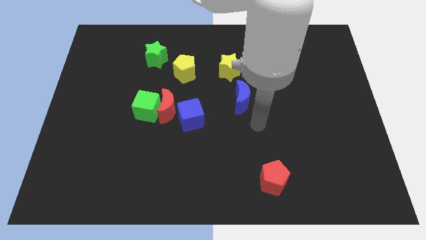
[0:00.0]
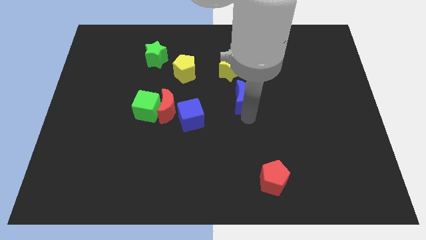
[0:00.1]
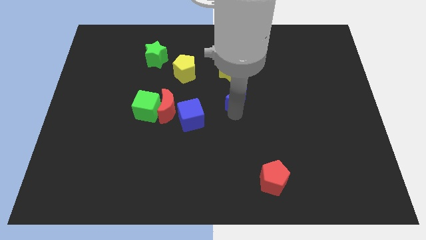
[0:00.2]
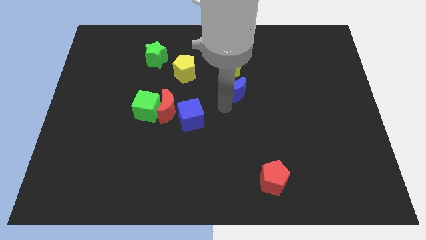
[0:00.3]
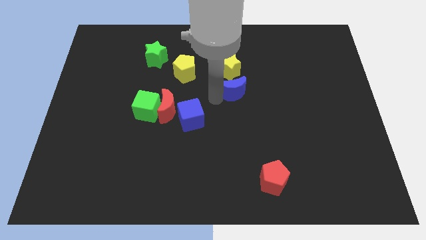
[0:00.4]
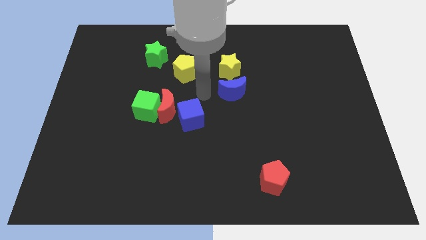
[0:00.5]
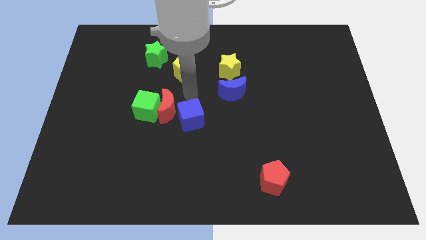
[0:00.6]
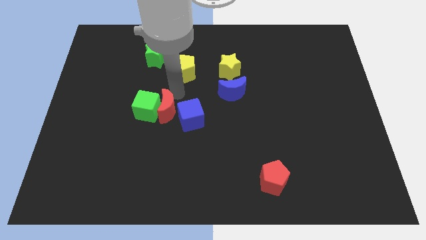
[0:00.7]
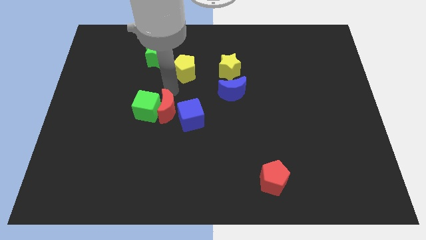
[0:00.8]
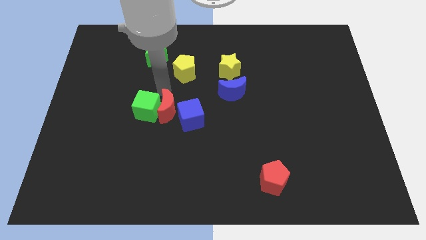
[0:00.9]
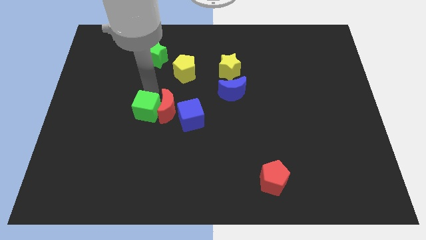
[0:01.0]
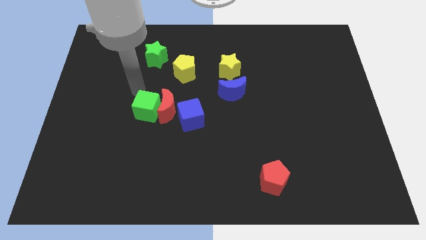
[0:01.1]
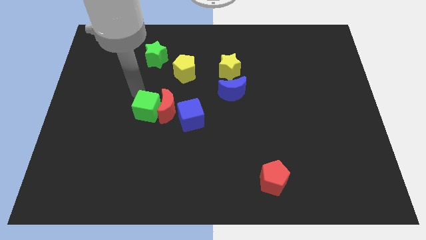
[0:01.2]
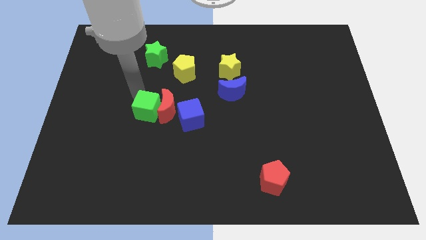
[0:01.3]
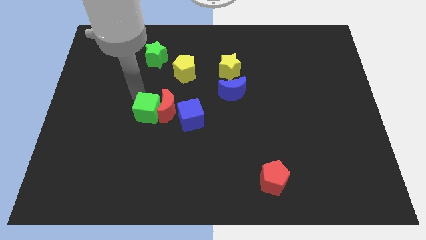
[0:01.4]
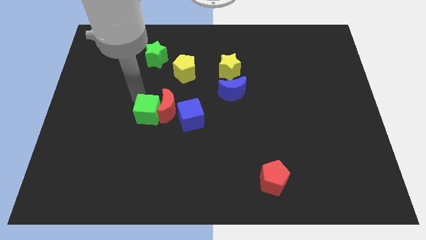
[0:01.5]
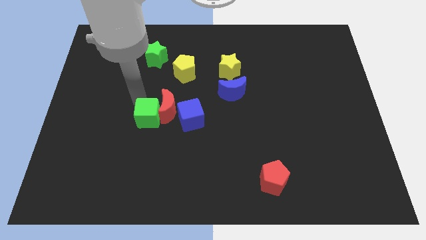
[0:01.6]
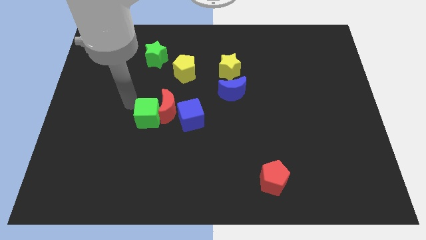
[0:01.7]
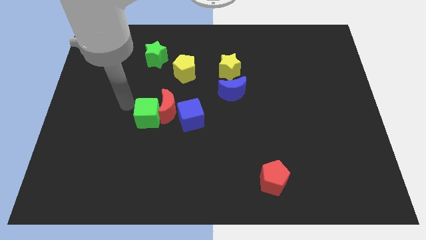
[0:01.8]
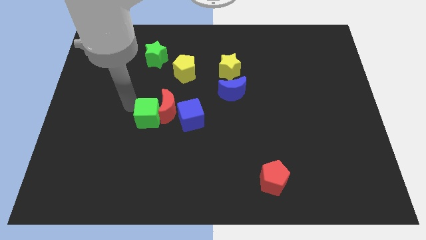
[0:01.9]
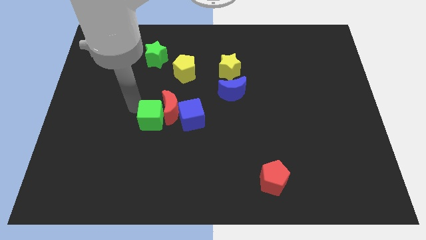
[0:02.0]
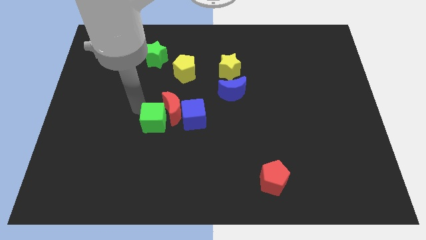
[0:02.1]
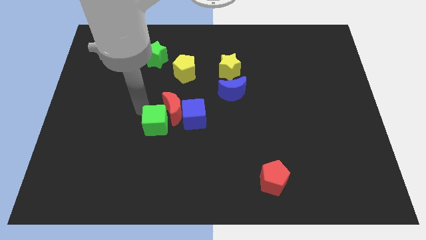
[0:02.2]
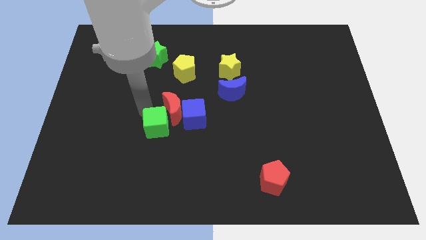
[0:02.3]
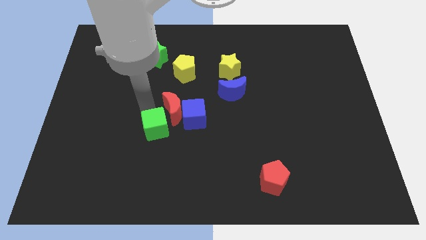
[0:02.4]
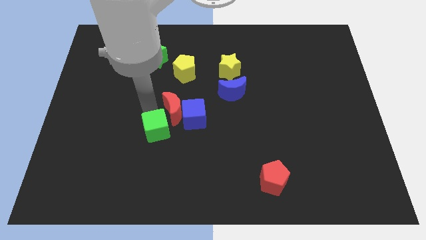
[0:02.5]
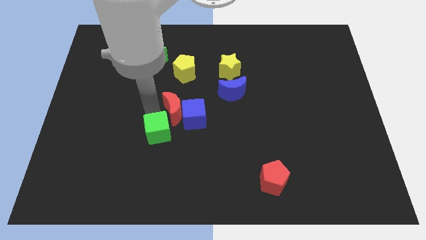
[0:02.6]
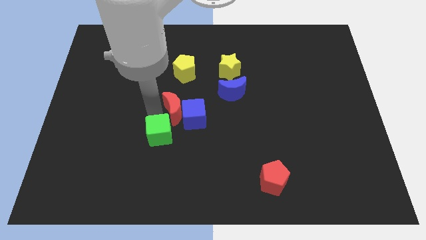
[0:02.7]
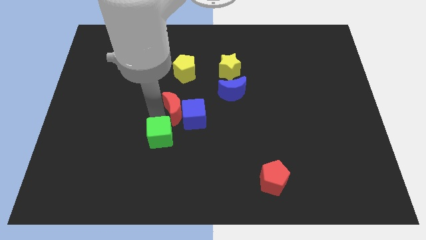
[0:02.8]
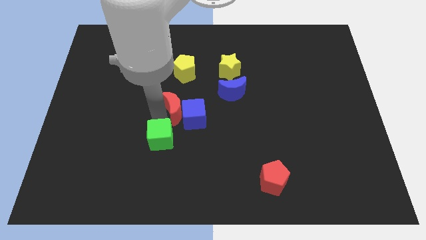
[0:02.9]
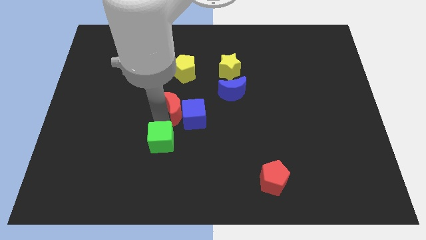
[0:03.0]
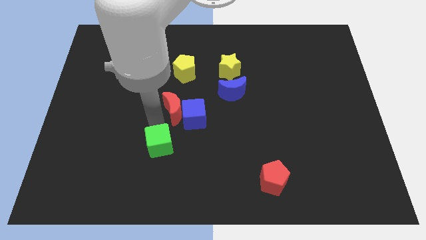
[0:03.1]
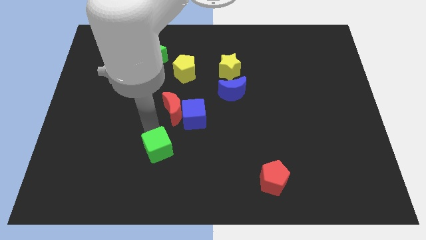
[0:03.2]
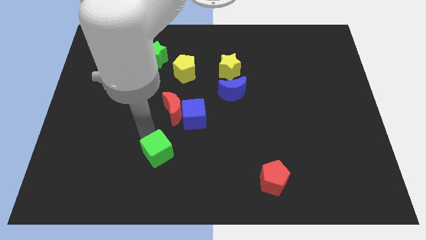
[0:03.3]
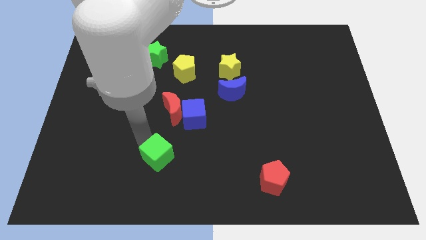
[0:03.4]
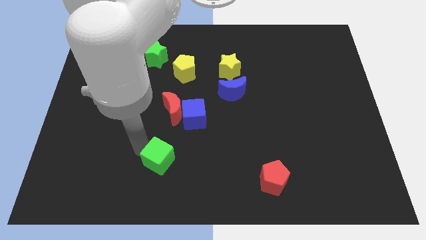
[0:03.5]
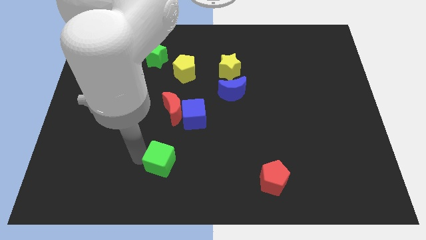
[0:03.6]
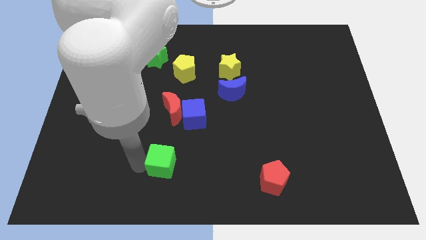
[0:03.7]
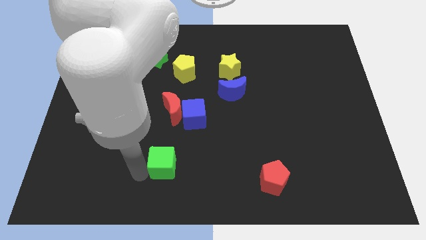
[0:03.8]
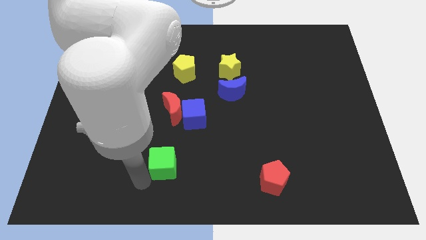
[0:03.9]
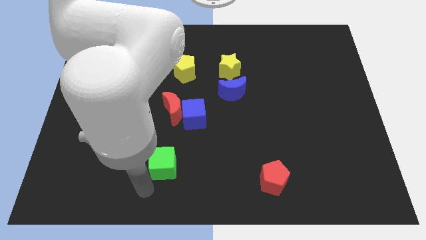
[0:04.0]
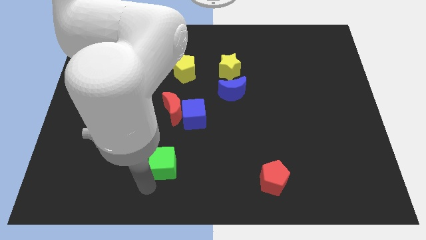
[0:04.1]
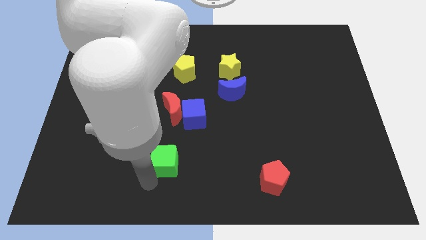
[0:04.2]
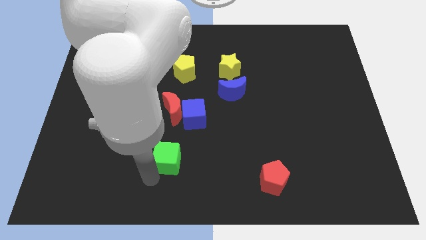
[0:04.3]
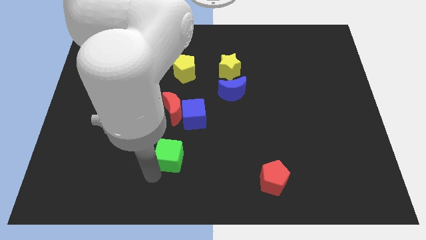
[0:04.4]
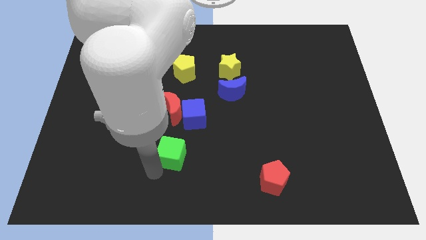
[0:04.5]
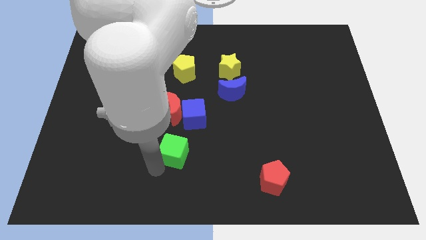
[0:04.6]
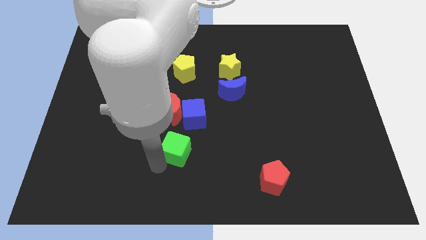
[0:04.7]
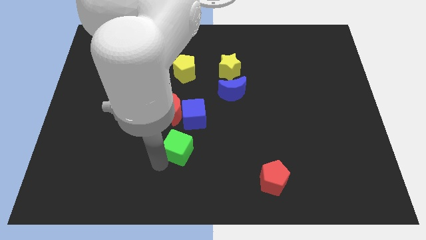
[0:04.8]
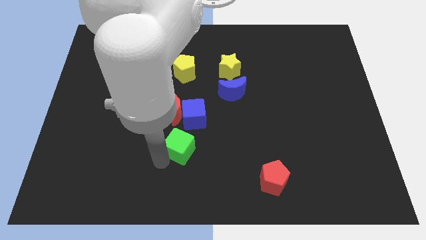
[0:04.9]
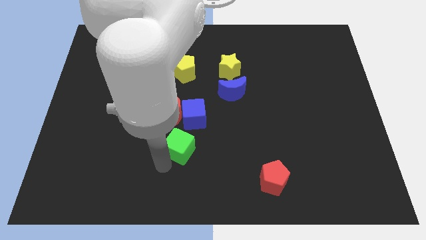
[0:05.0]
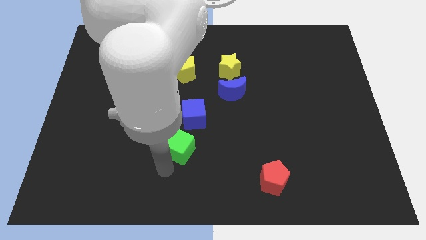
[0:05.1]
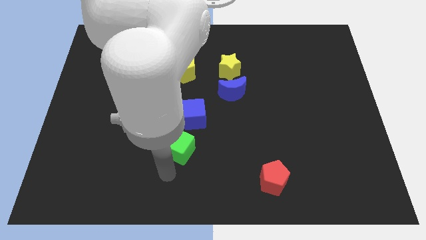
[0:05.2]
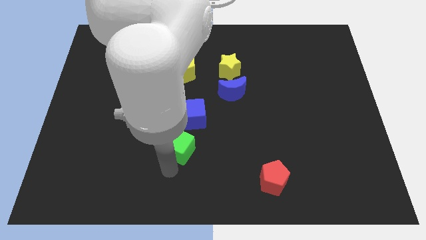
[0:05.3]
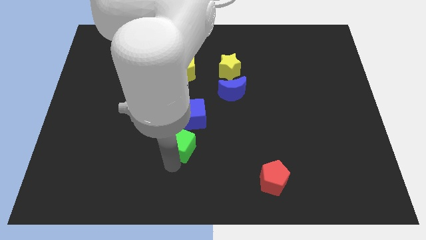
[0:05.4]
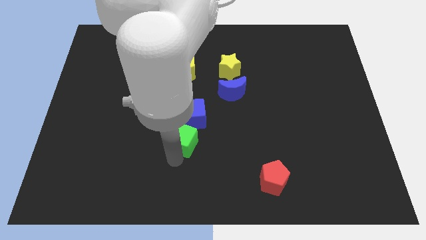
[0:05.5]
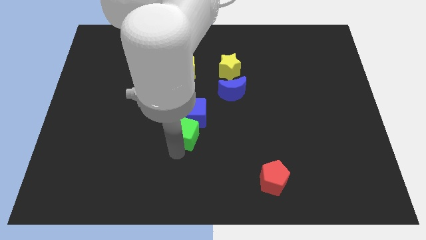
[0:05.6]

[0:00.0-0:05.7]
push the green cube to the right slightly

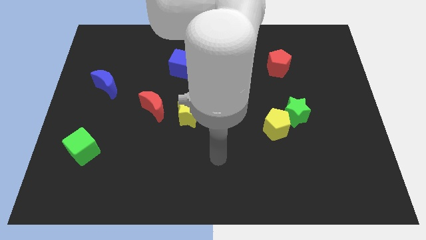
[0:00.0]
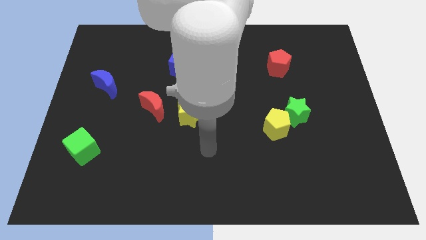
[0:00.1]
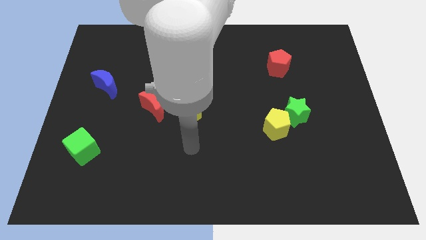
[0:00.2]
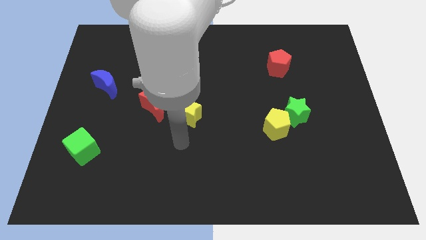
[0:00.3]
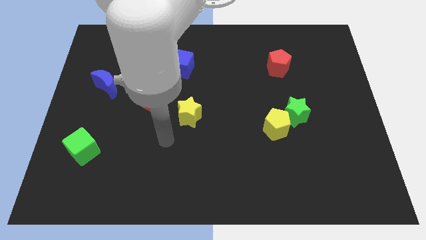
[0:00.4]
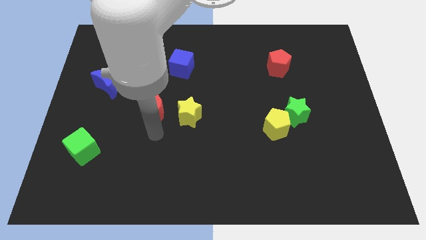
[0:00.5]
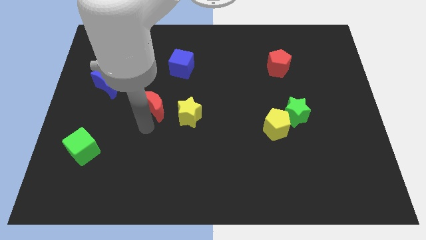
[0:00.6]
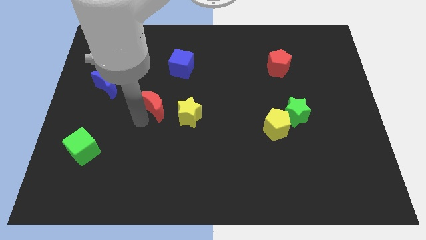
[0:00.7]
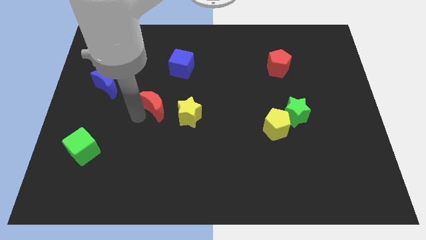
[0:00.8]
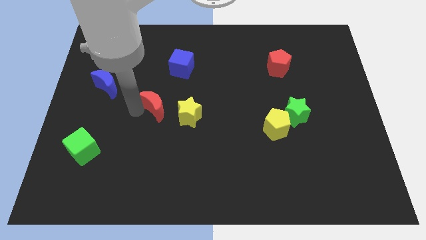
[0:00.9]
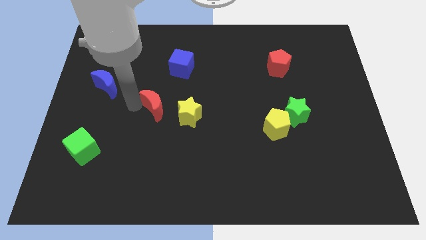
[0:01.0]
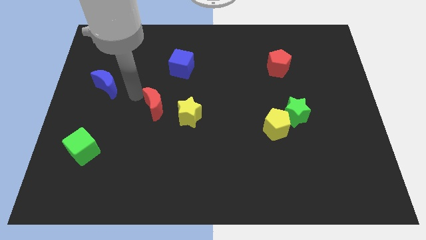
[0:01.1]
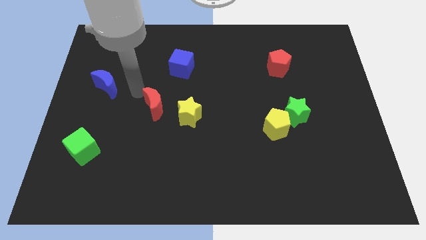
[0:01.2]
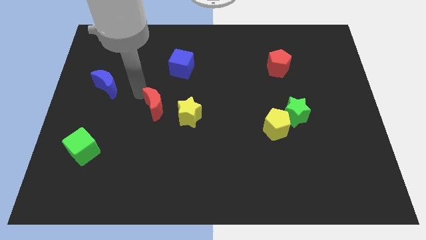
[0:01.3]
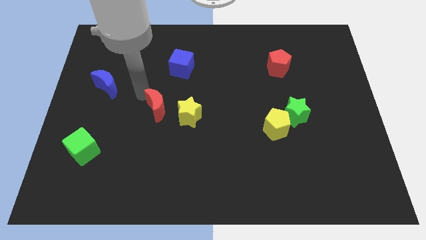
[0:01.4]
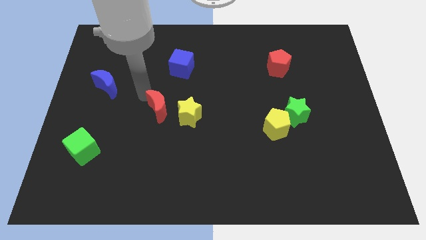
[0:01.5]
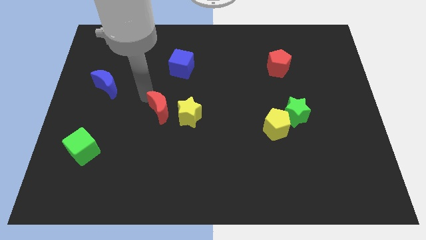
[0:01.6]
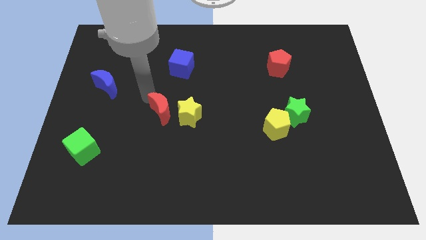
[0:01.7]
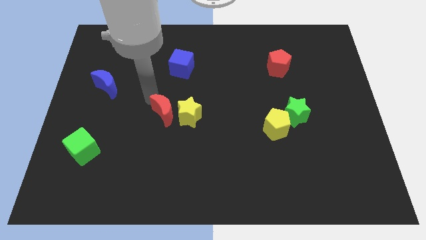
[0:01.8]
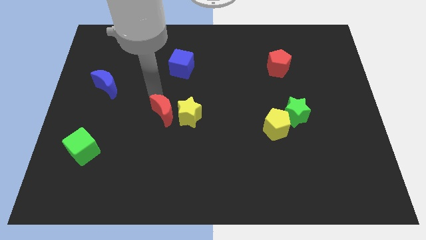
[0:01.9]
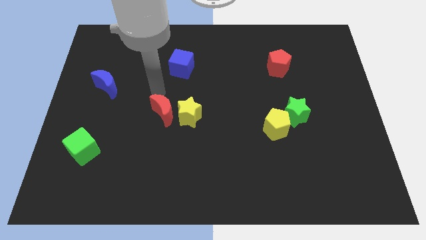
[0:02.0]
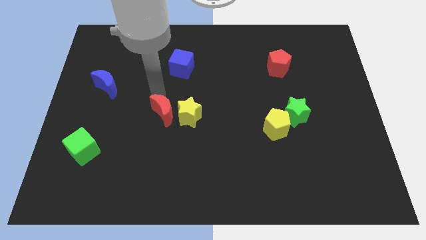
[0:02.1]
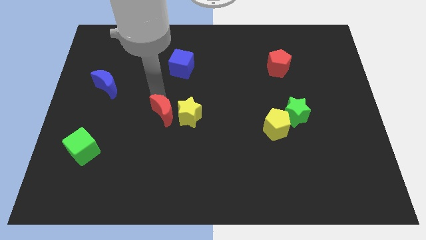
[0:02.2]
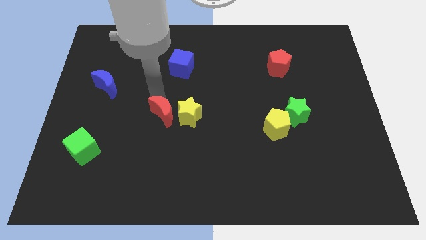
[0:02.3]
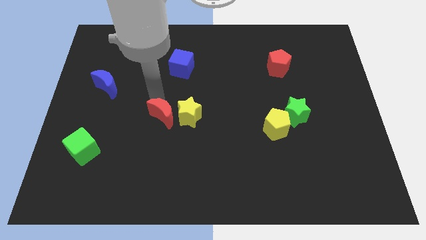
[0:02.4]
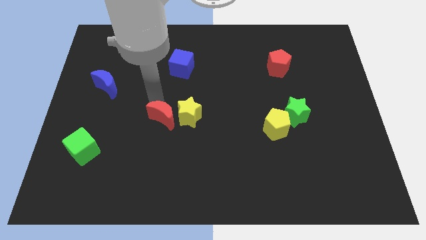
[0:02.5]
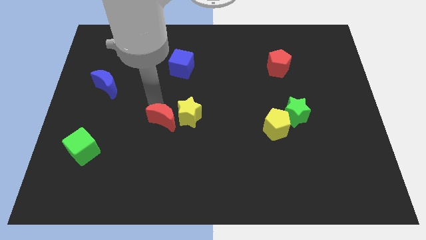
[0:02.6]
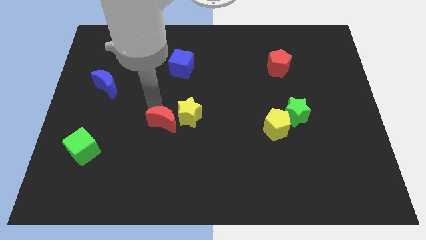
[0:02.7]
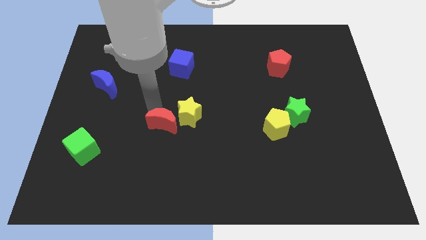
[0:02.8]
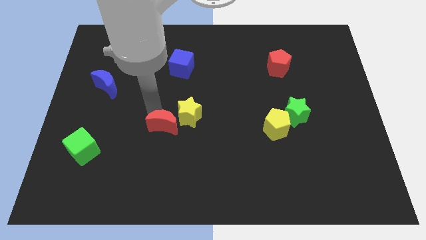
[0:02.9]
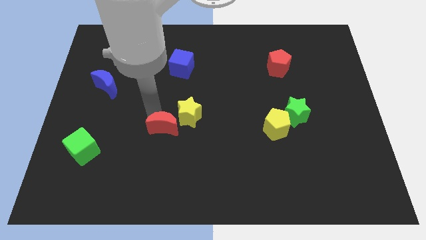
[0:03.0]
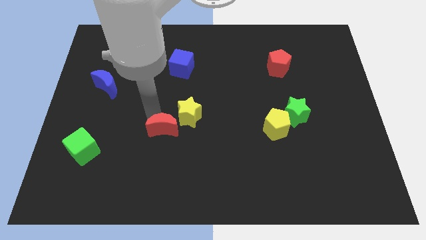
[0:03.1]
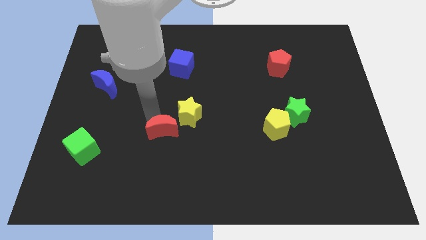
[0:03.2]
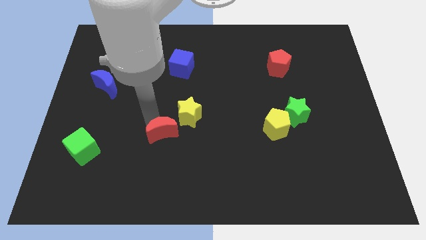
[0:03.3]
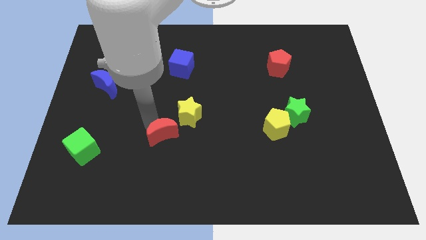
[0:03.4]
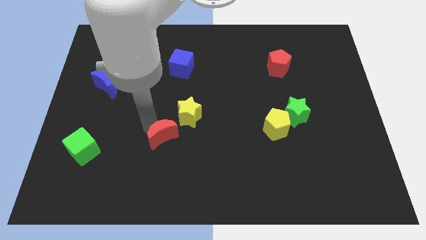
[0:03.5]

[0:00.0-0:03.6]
push the red moon down and then right slightly
